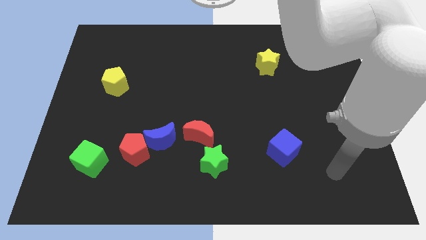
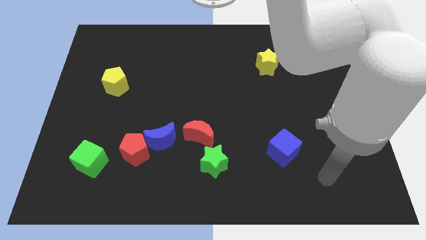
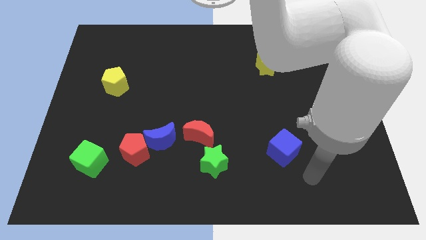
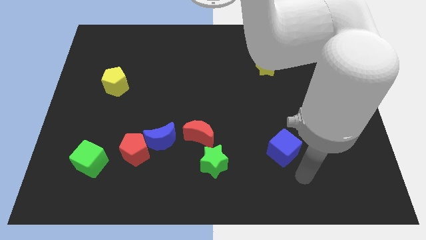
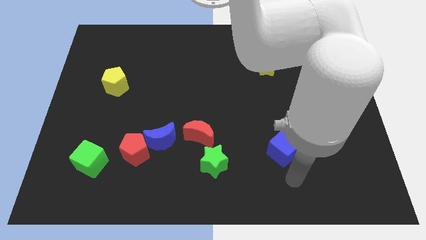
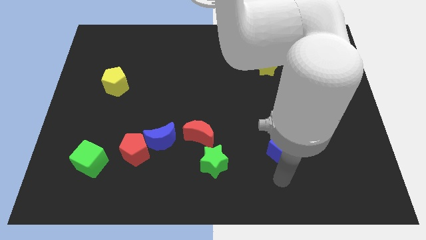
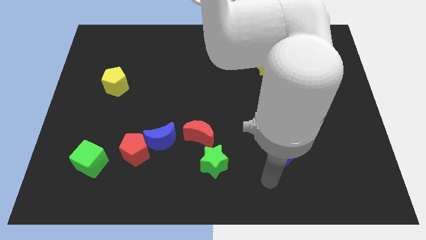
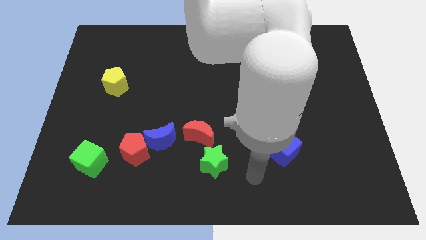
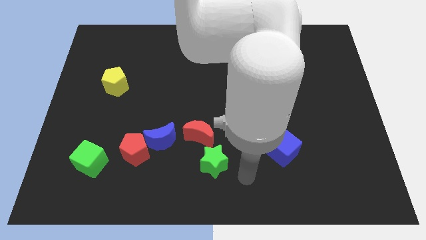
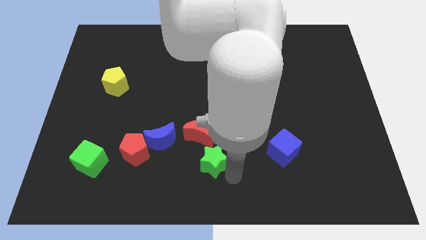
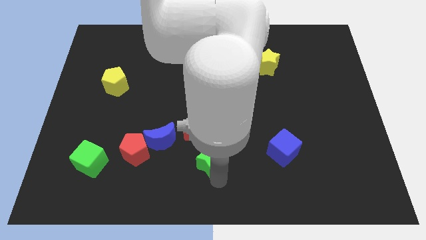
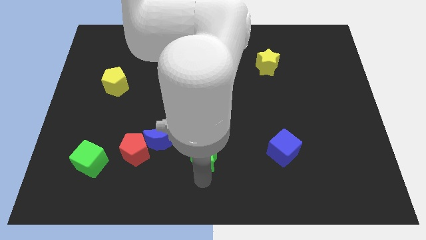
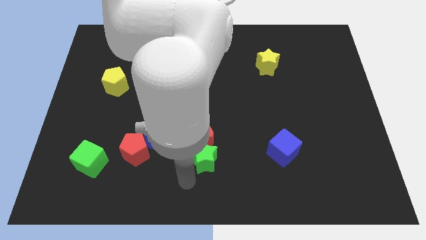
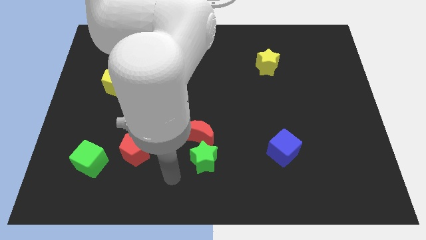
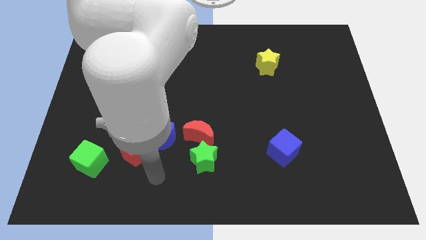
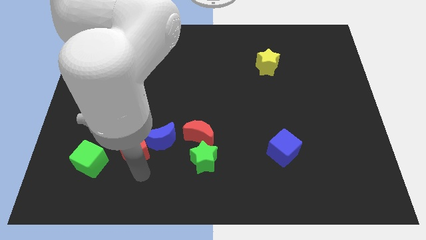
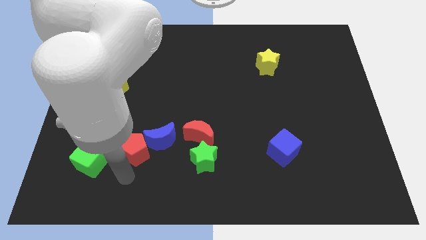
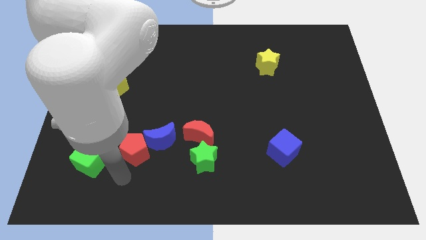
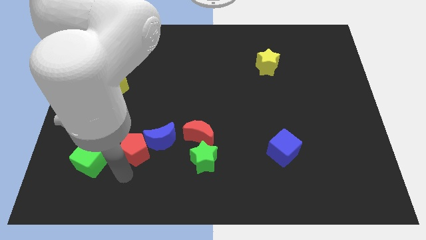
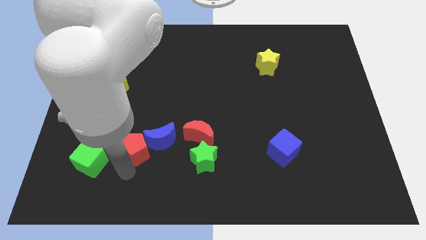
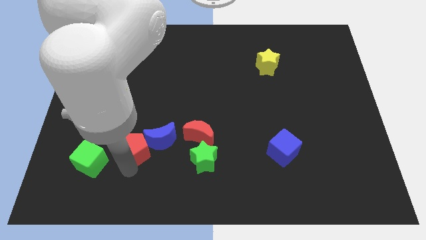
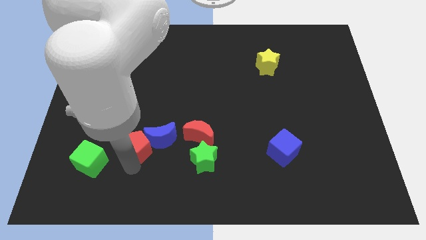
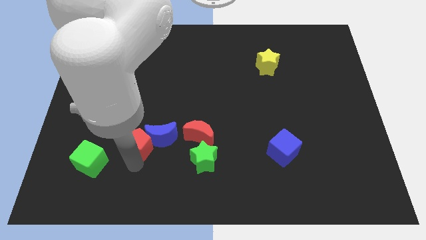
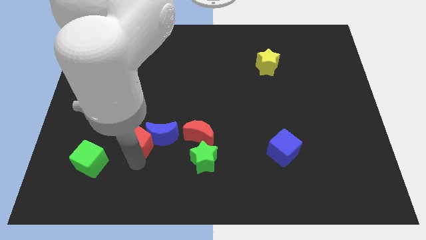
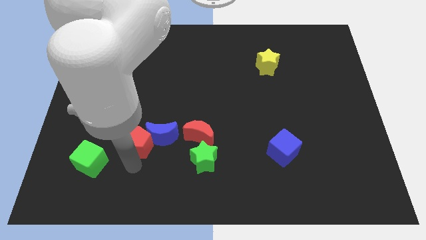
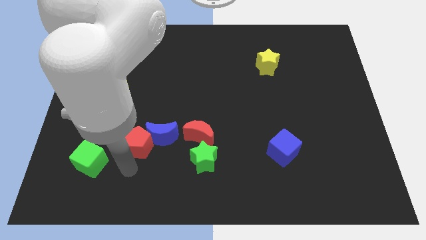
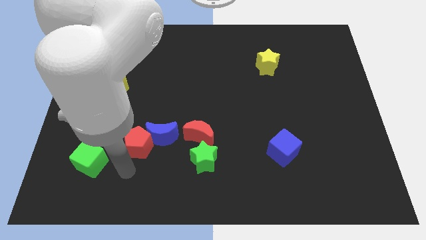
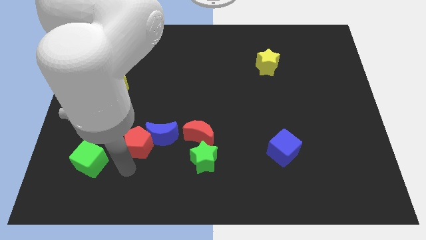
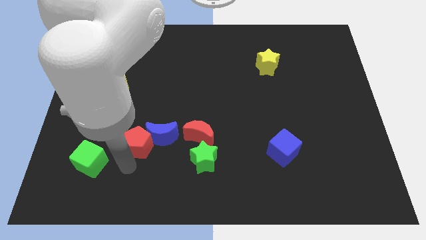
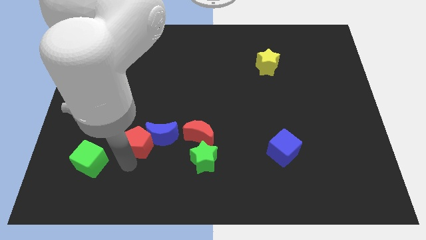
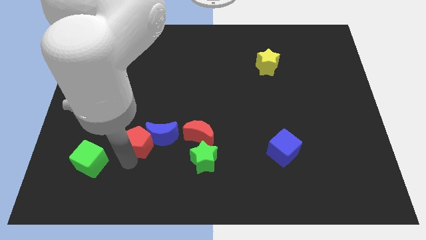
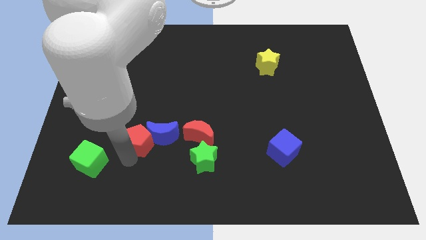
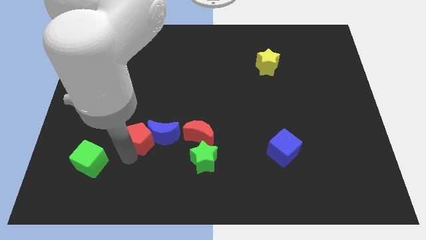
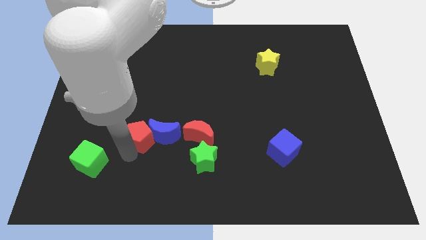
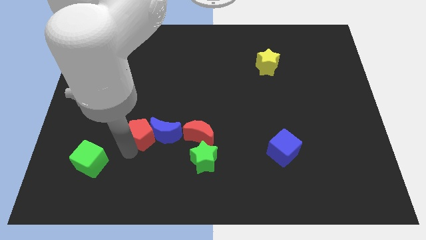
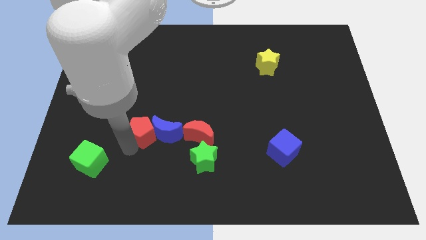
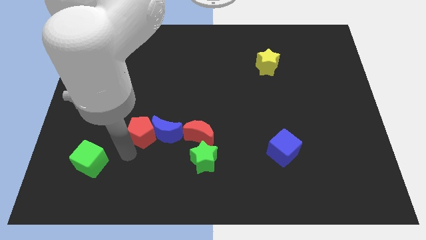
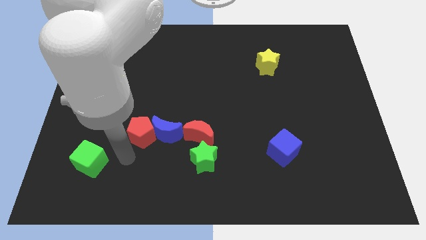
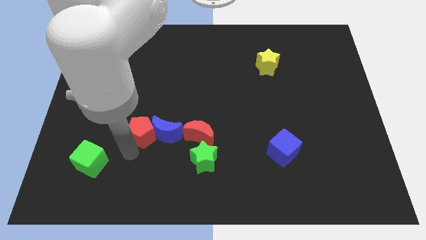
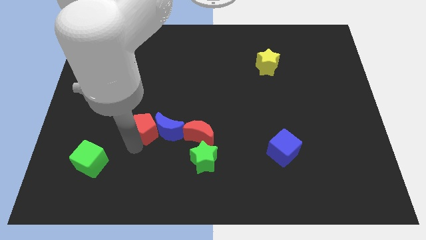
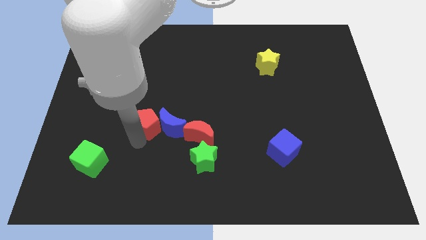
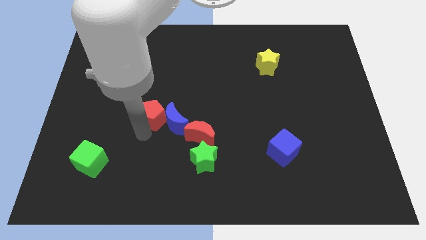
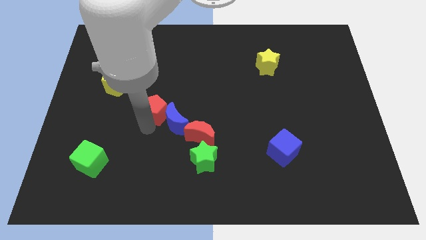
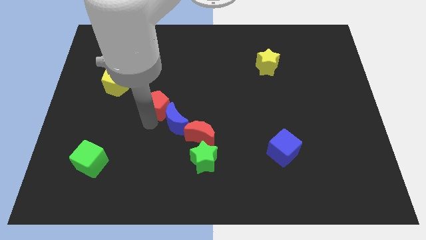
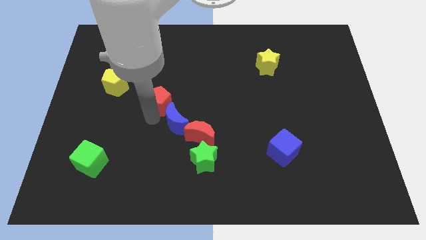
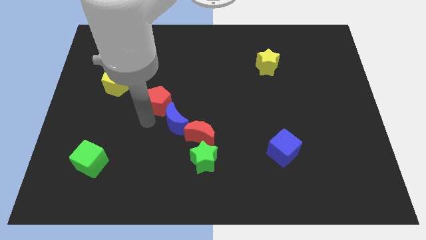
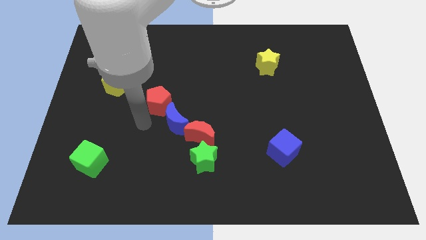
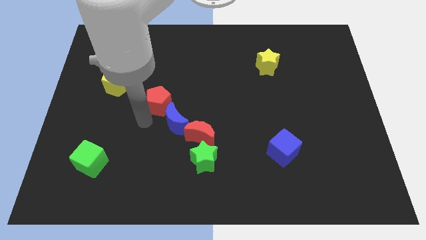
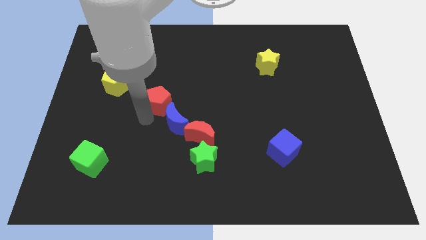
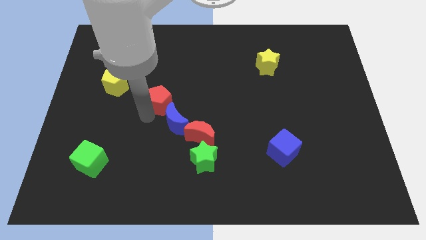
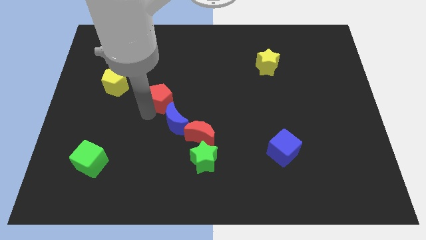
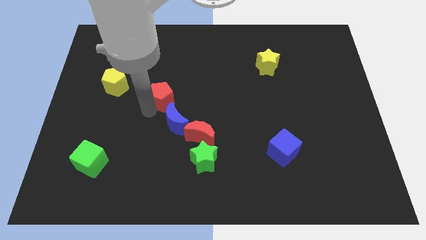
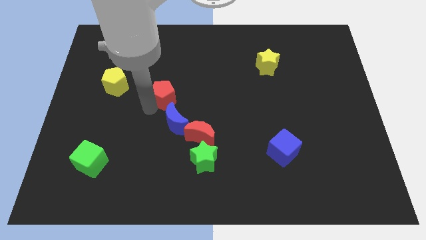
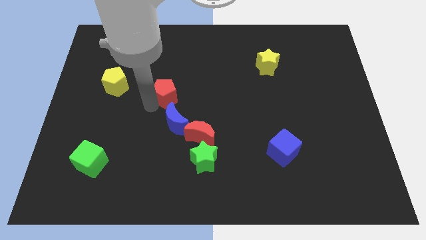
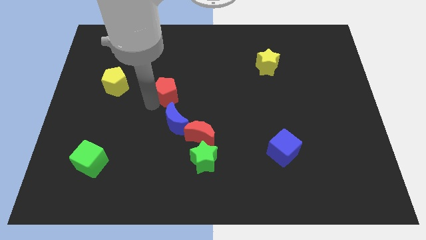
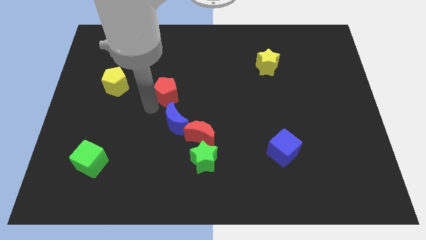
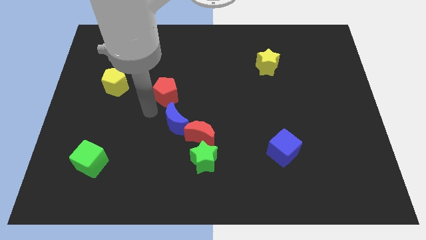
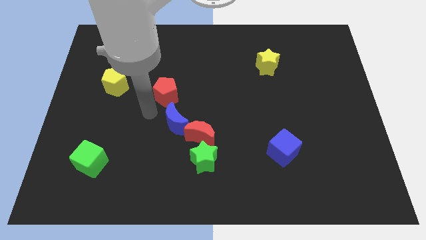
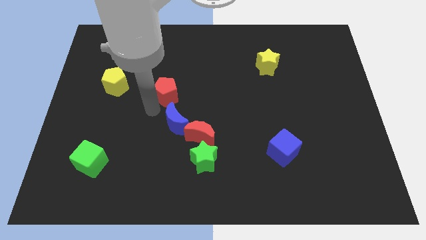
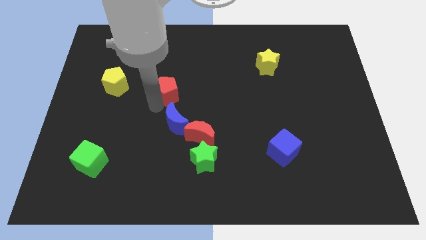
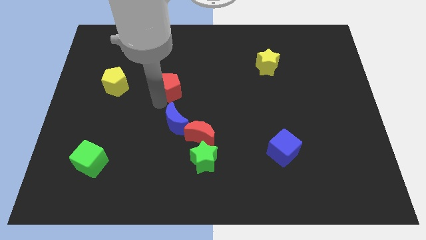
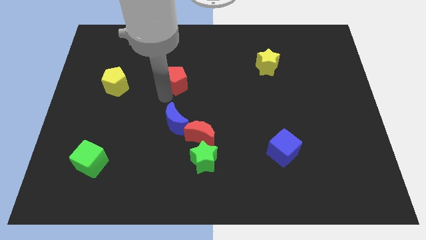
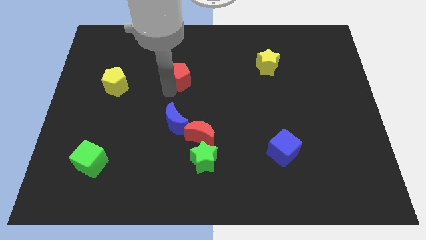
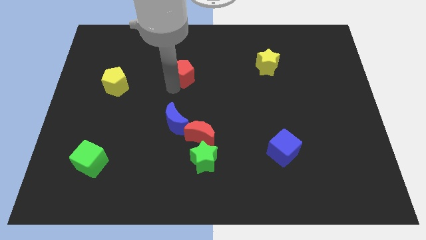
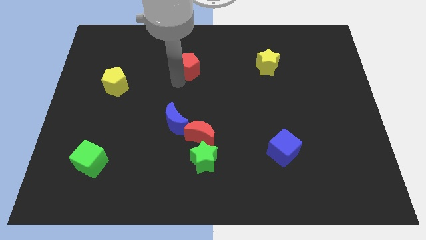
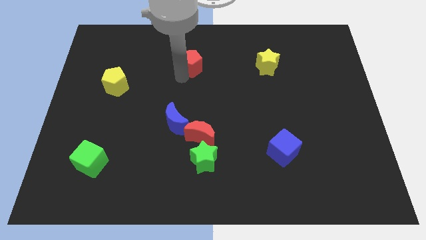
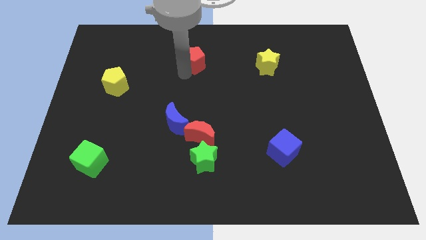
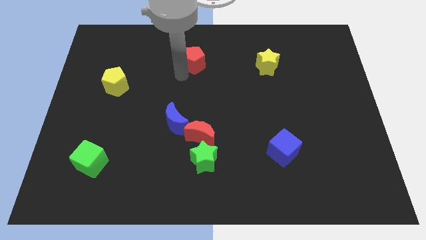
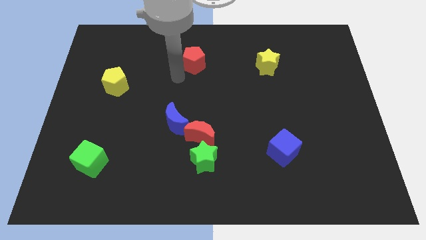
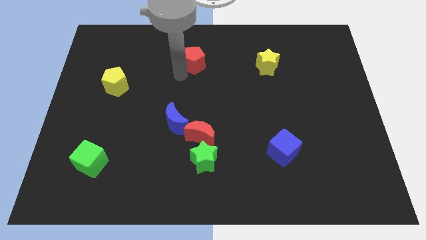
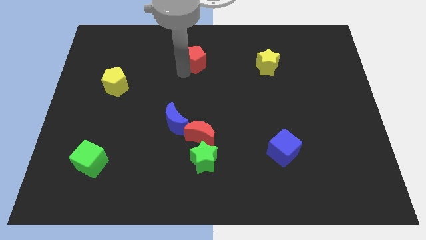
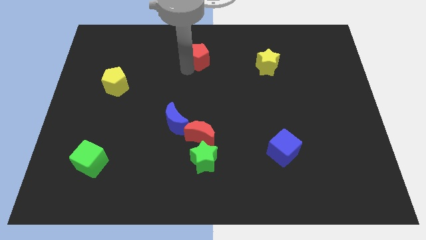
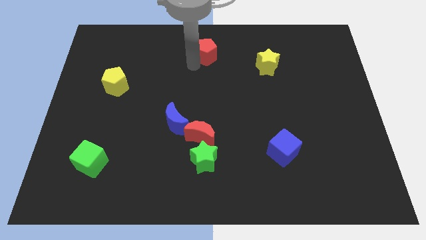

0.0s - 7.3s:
put the red pentagon to the top
